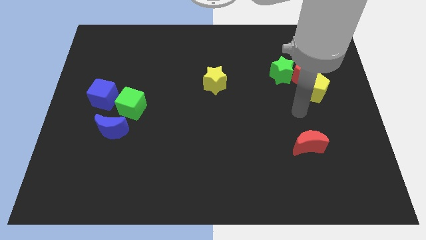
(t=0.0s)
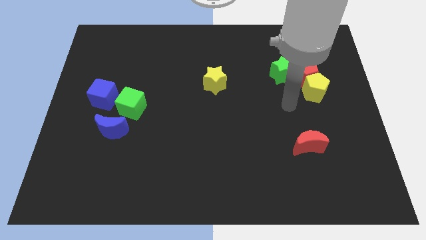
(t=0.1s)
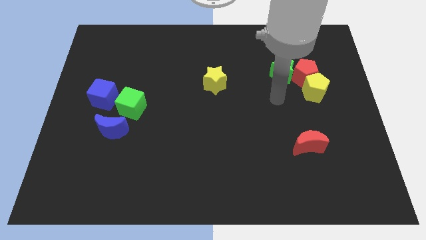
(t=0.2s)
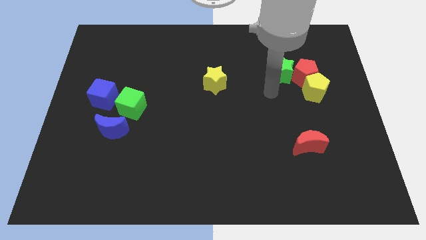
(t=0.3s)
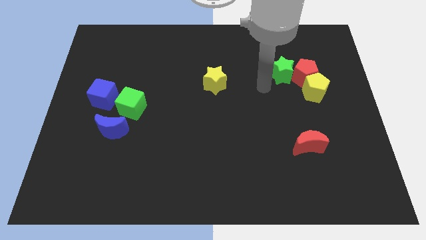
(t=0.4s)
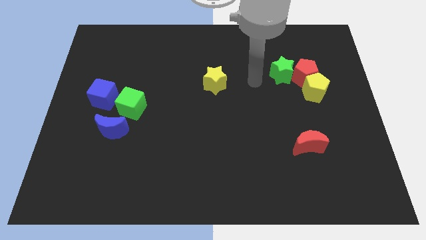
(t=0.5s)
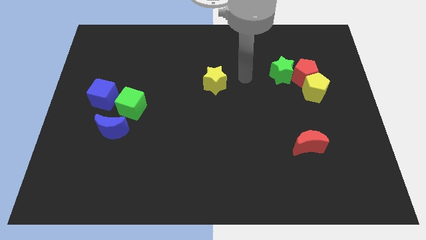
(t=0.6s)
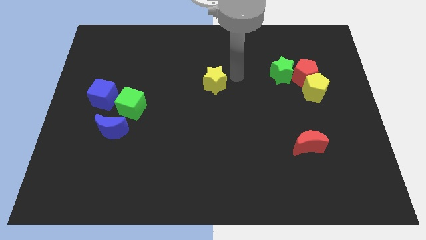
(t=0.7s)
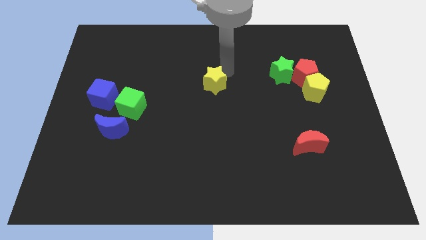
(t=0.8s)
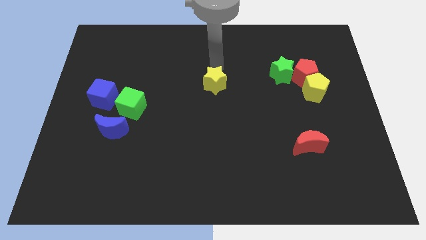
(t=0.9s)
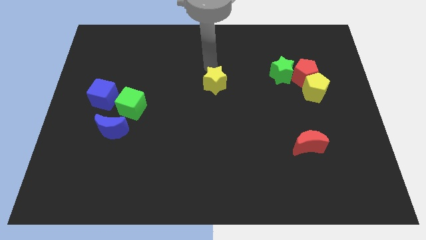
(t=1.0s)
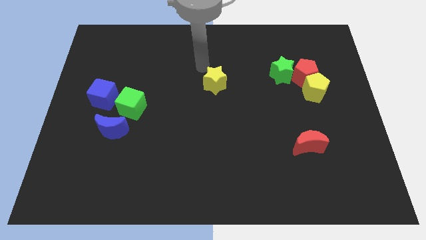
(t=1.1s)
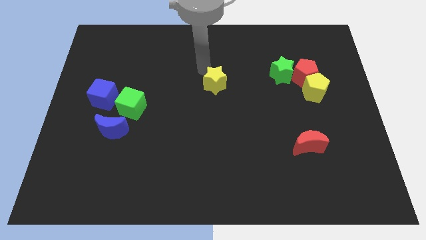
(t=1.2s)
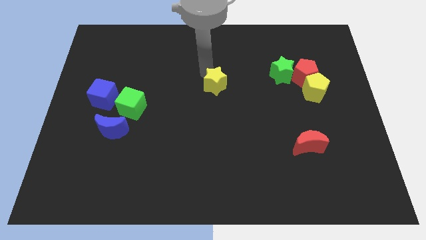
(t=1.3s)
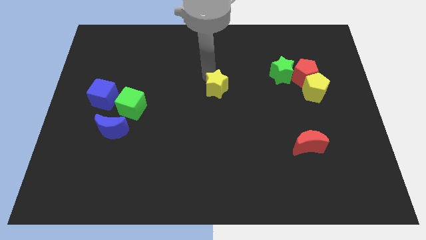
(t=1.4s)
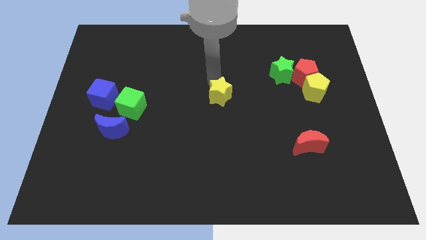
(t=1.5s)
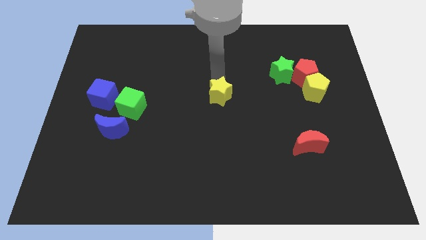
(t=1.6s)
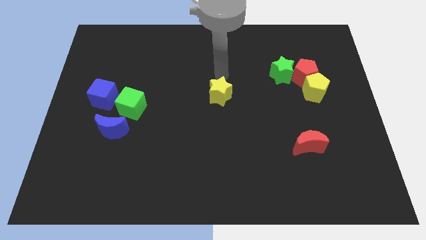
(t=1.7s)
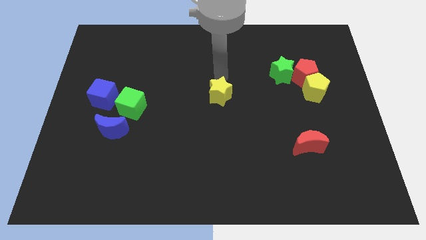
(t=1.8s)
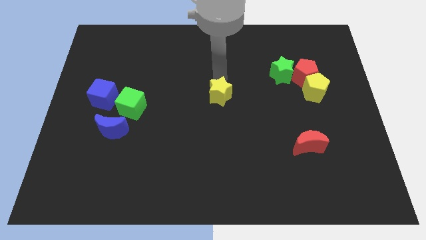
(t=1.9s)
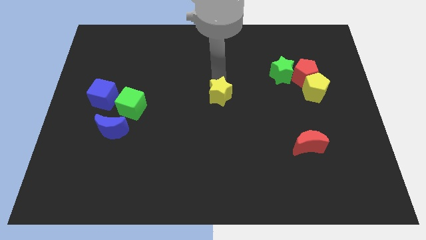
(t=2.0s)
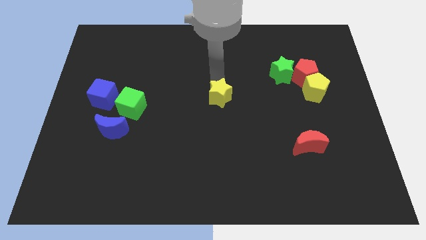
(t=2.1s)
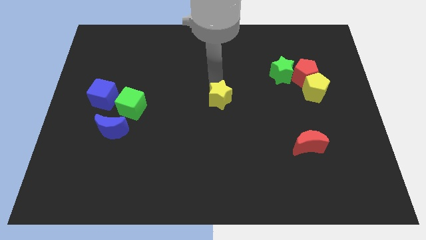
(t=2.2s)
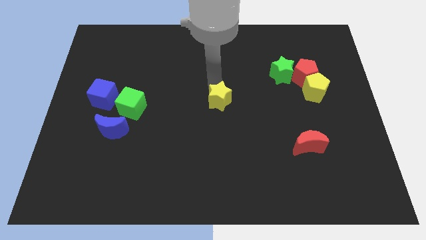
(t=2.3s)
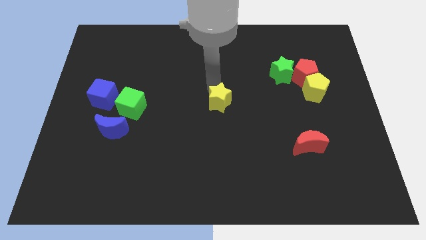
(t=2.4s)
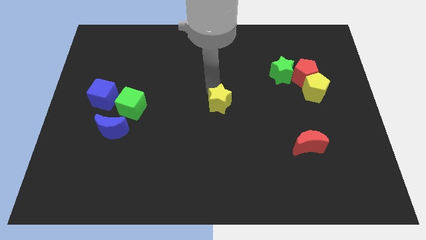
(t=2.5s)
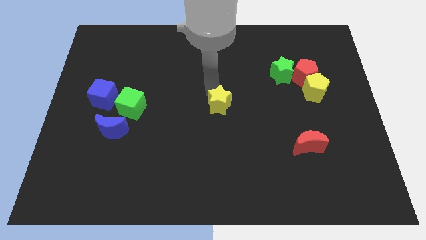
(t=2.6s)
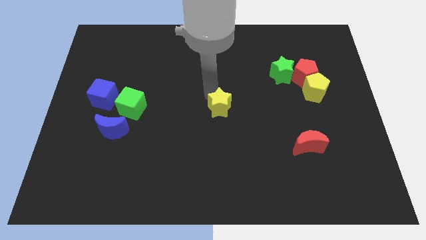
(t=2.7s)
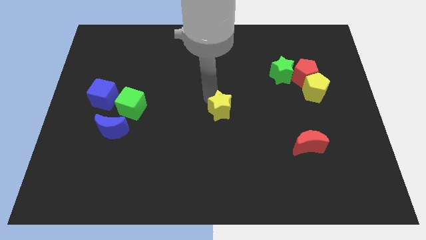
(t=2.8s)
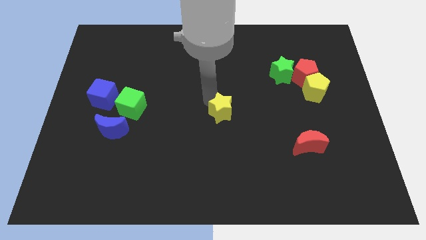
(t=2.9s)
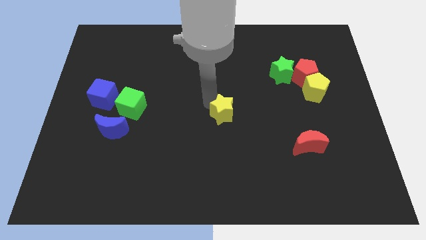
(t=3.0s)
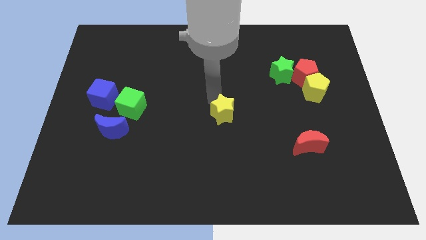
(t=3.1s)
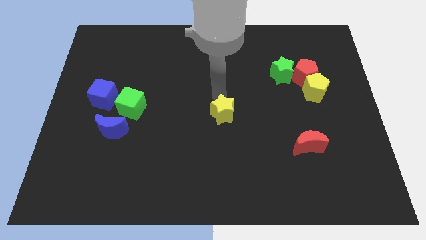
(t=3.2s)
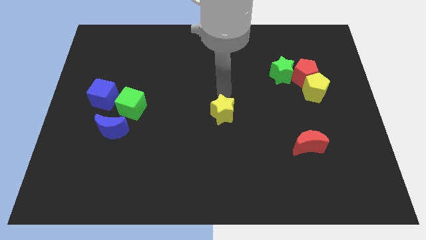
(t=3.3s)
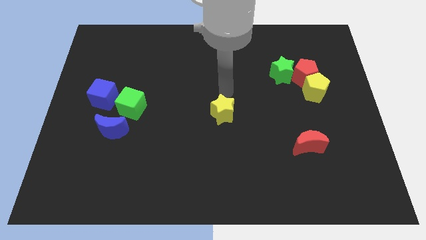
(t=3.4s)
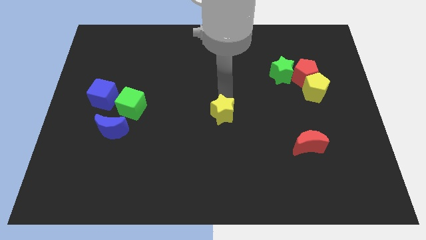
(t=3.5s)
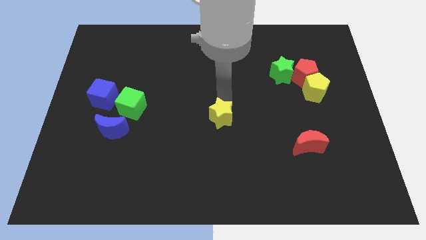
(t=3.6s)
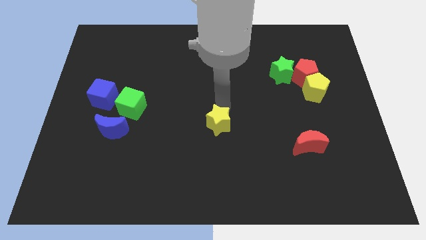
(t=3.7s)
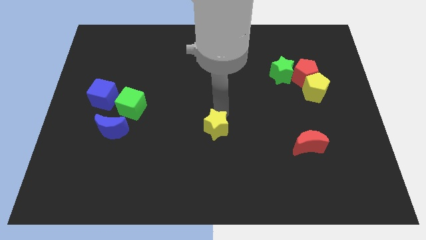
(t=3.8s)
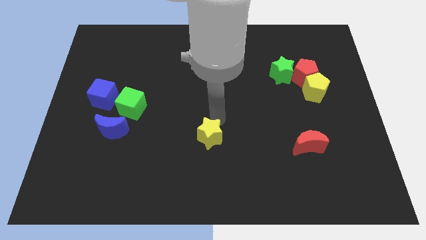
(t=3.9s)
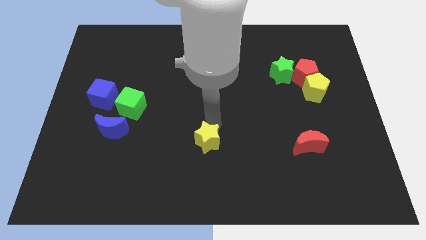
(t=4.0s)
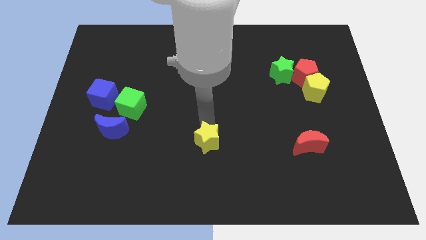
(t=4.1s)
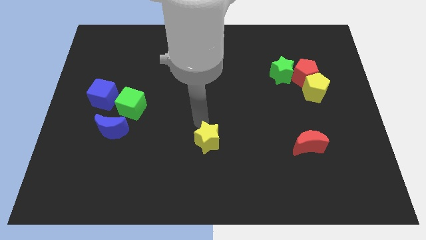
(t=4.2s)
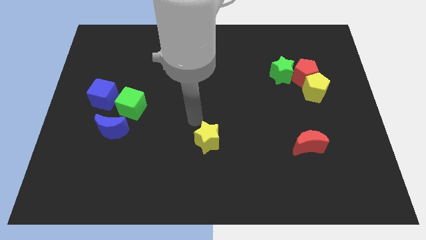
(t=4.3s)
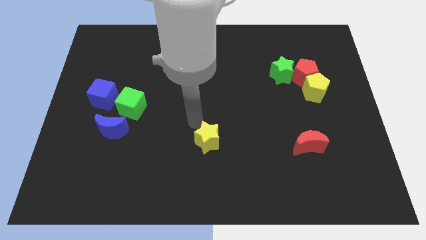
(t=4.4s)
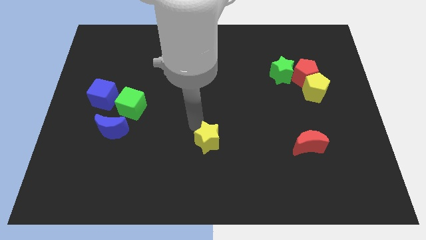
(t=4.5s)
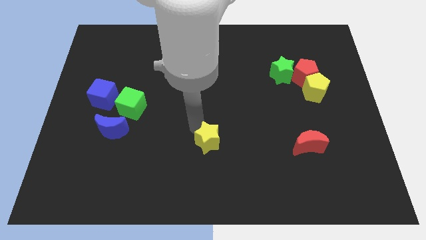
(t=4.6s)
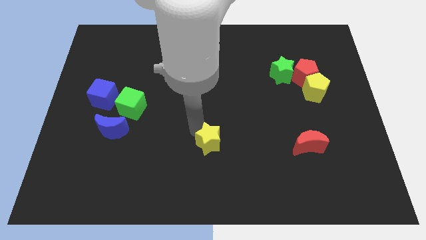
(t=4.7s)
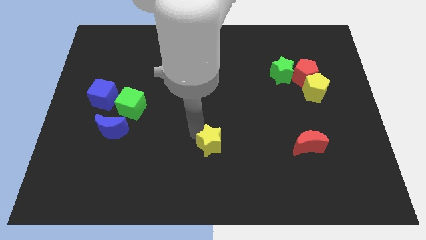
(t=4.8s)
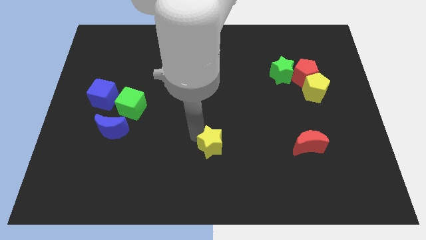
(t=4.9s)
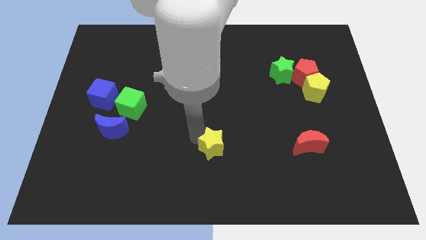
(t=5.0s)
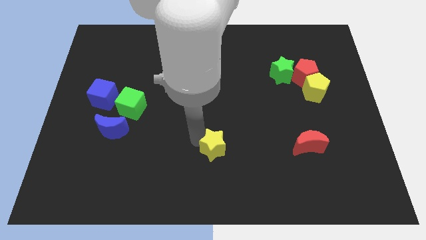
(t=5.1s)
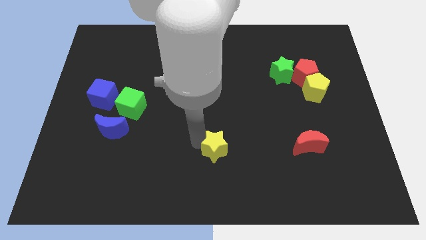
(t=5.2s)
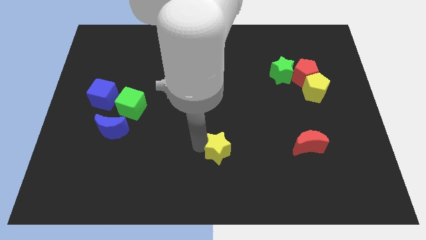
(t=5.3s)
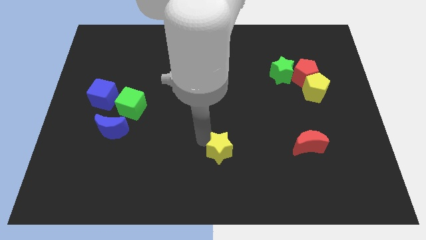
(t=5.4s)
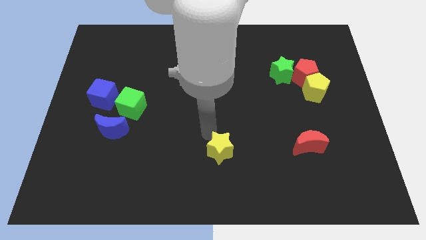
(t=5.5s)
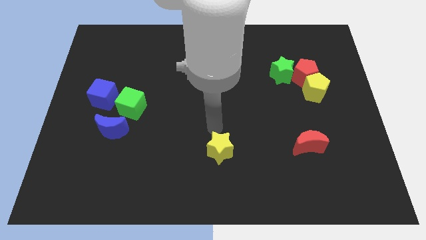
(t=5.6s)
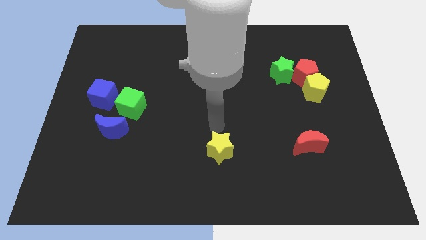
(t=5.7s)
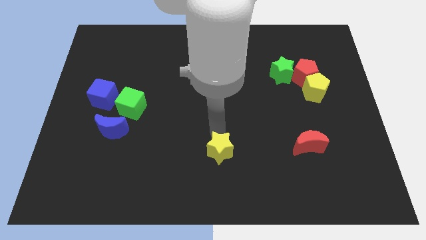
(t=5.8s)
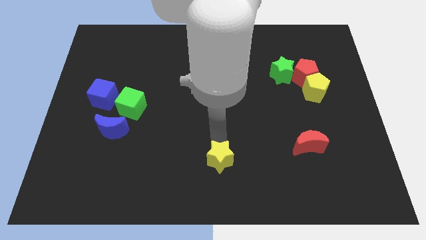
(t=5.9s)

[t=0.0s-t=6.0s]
push the yellow star to the bottom

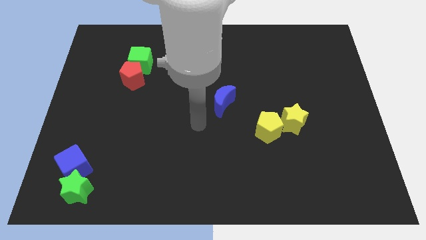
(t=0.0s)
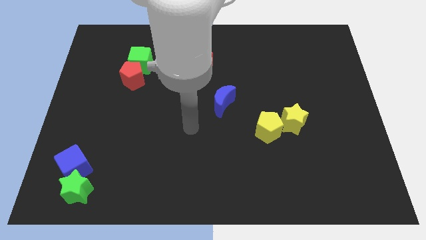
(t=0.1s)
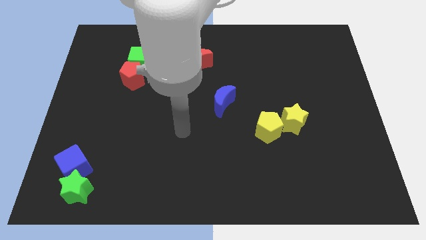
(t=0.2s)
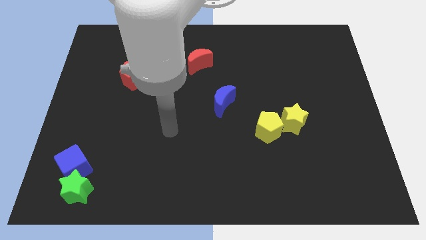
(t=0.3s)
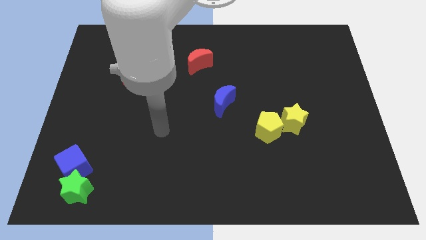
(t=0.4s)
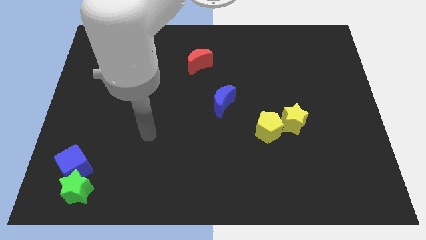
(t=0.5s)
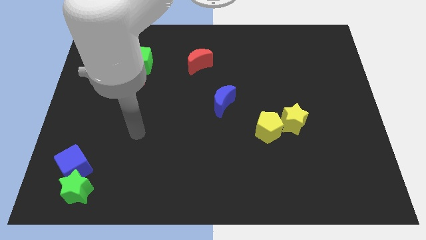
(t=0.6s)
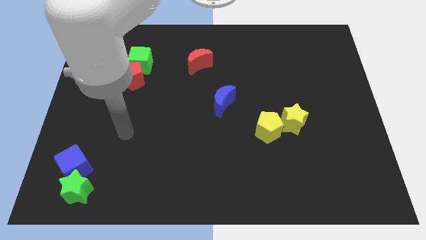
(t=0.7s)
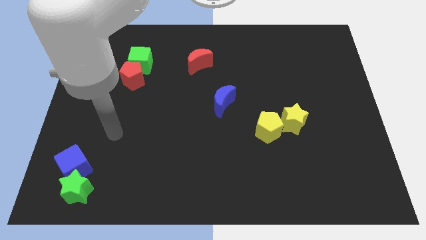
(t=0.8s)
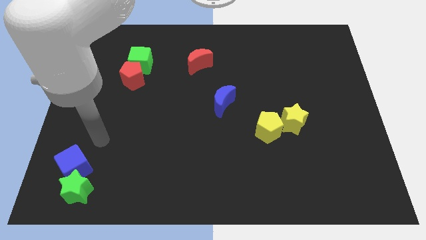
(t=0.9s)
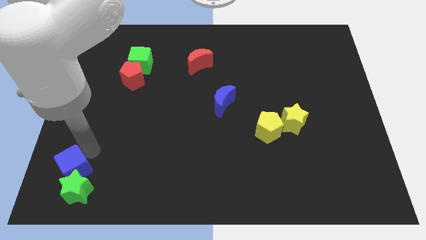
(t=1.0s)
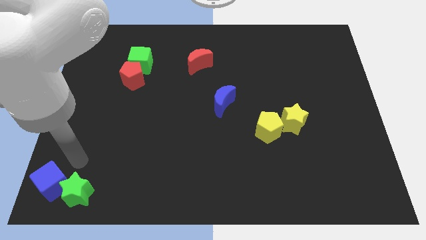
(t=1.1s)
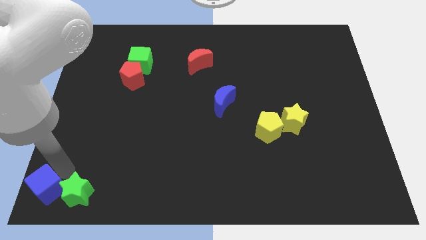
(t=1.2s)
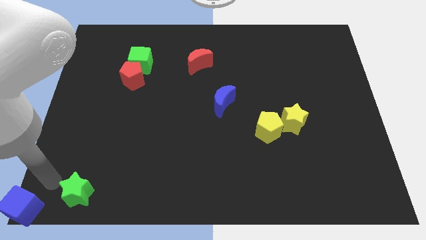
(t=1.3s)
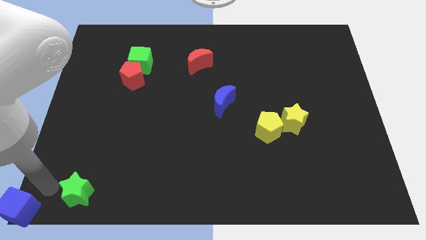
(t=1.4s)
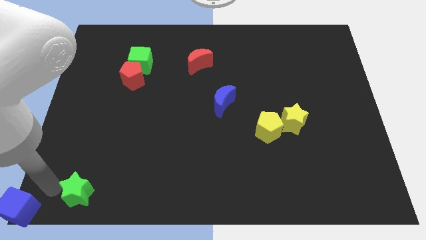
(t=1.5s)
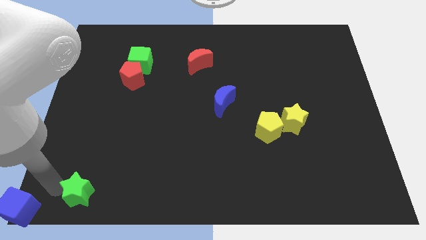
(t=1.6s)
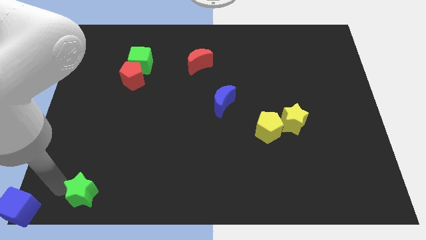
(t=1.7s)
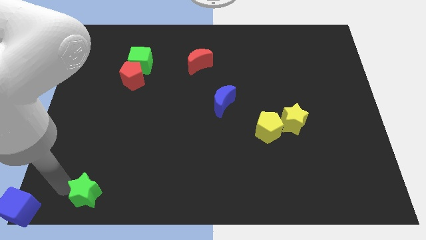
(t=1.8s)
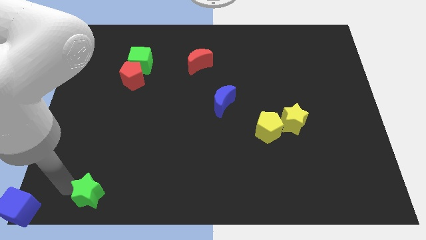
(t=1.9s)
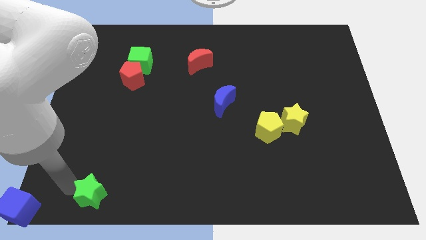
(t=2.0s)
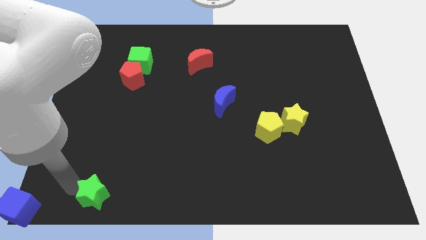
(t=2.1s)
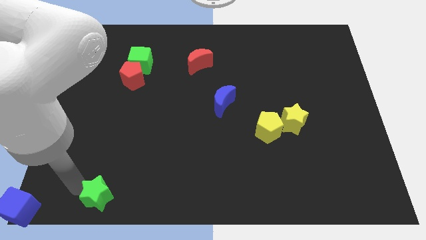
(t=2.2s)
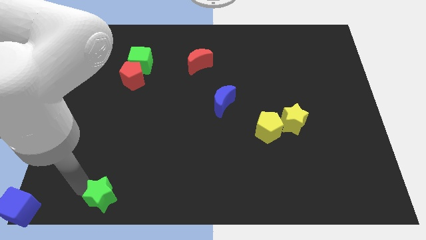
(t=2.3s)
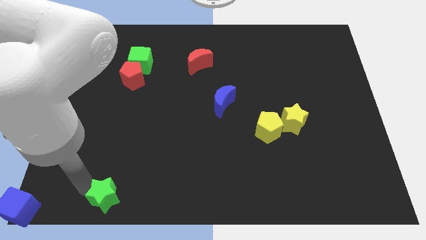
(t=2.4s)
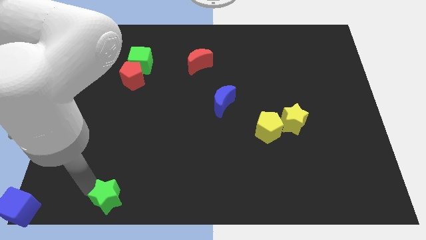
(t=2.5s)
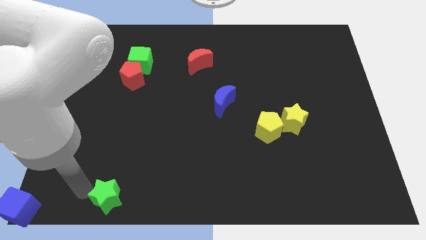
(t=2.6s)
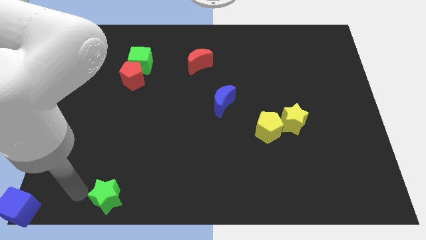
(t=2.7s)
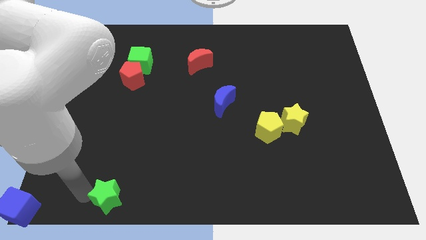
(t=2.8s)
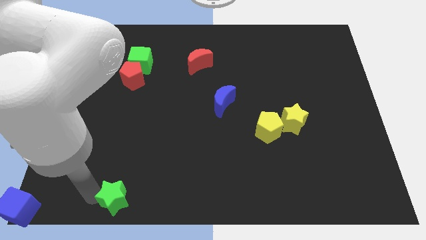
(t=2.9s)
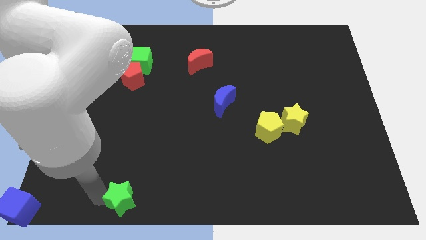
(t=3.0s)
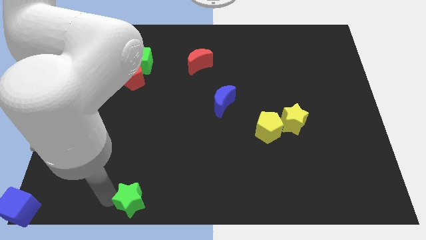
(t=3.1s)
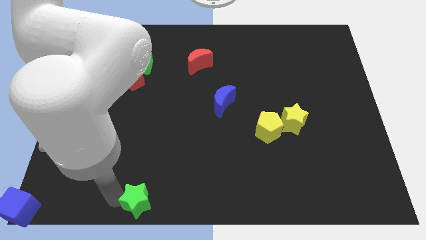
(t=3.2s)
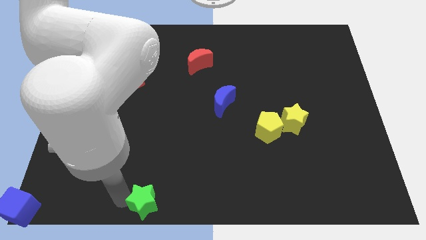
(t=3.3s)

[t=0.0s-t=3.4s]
slide the green star to the bottom side
